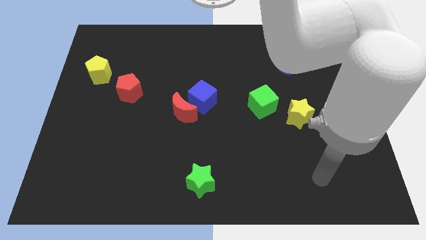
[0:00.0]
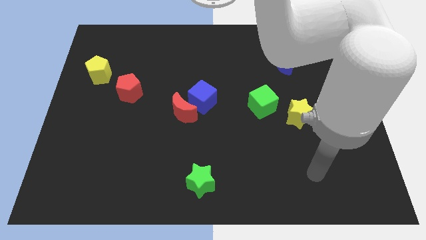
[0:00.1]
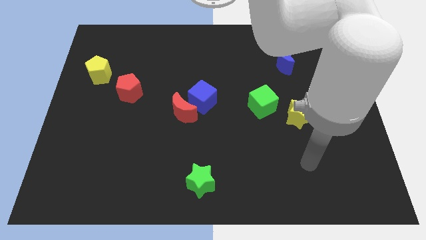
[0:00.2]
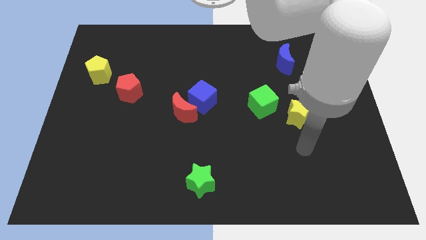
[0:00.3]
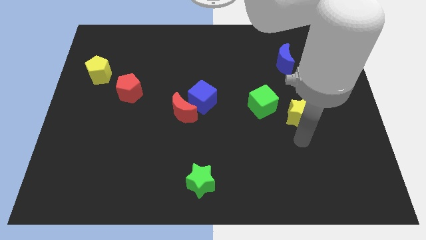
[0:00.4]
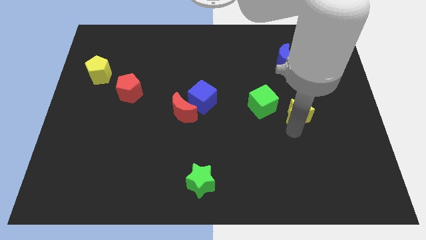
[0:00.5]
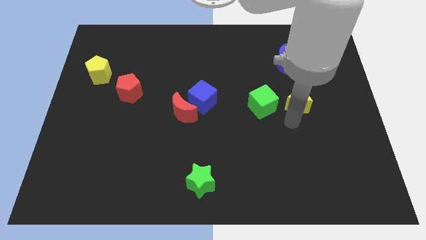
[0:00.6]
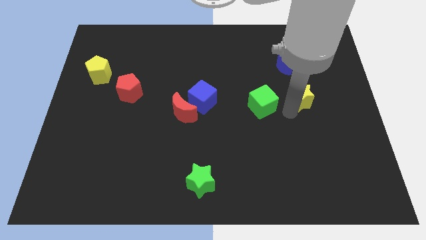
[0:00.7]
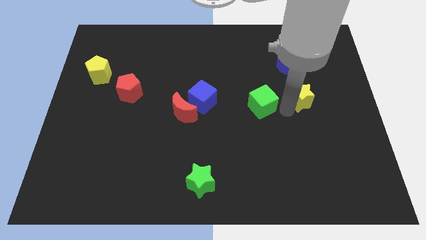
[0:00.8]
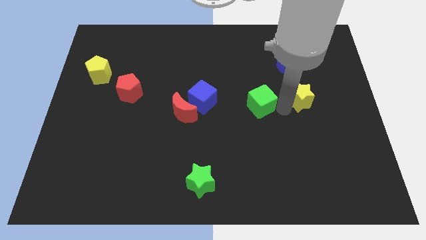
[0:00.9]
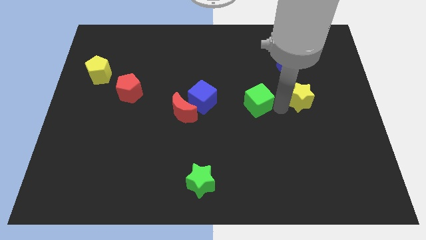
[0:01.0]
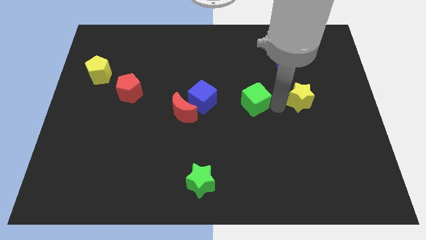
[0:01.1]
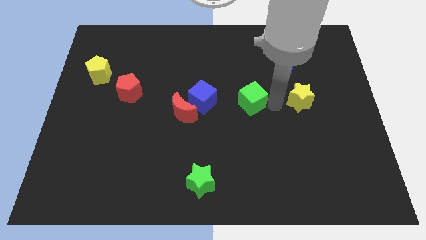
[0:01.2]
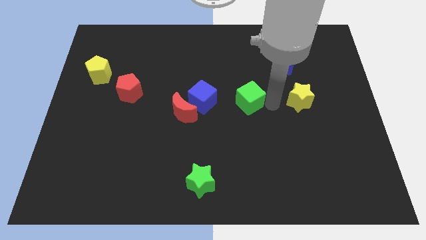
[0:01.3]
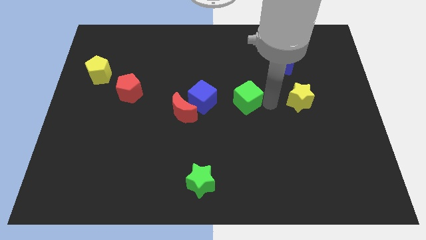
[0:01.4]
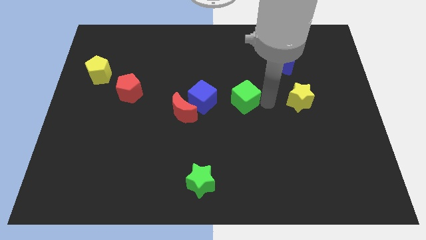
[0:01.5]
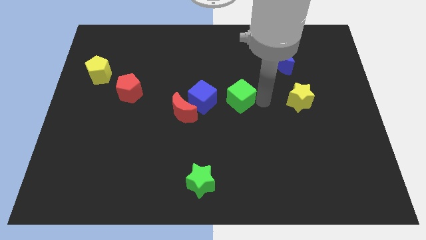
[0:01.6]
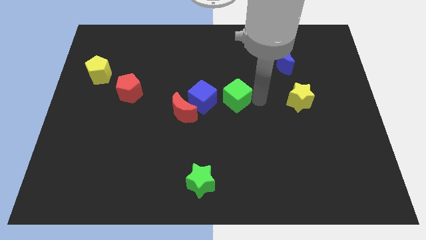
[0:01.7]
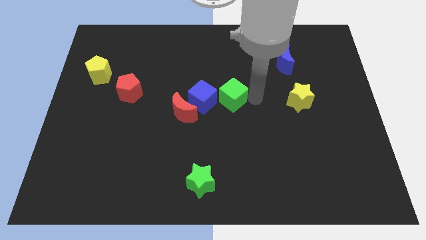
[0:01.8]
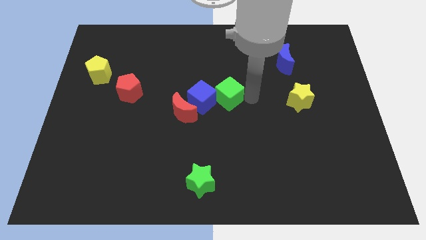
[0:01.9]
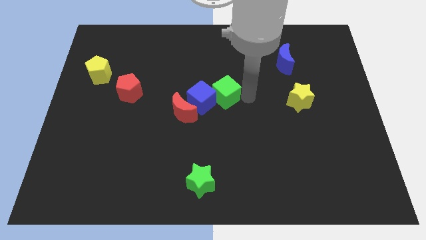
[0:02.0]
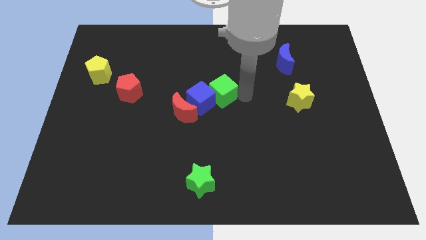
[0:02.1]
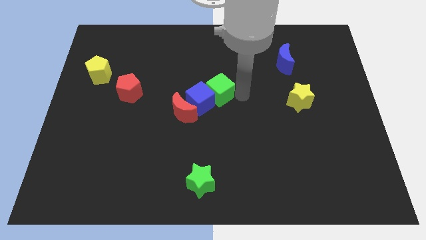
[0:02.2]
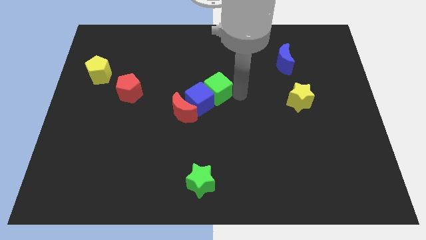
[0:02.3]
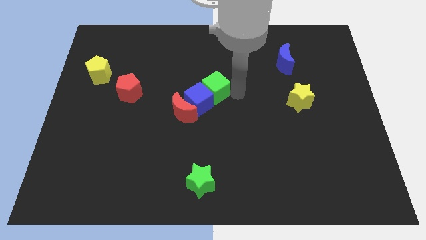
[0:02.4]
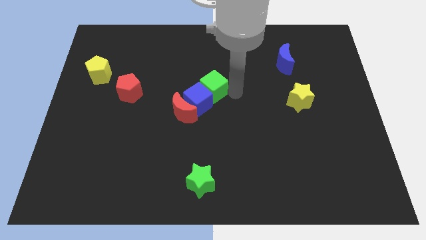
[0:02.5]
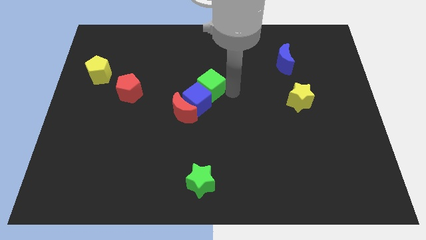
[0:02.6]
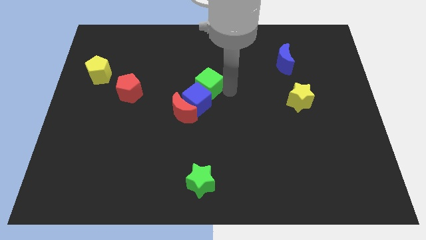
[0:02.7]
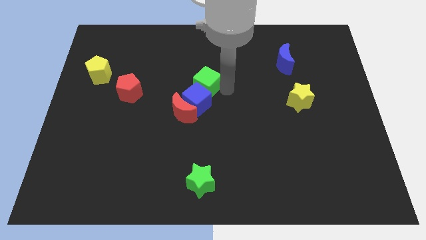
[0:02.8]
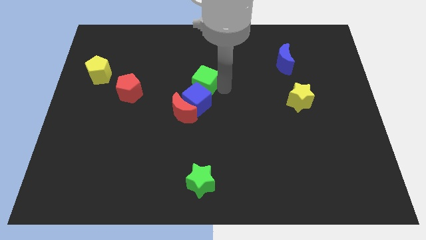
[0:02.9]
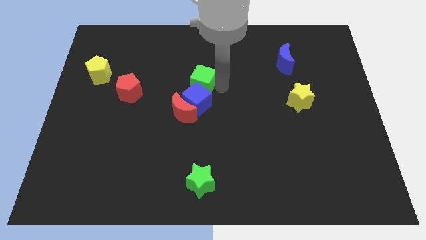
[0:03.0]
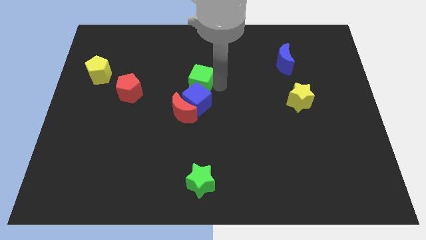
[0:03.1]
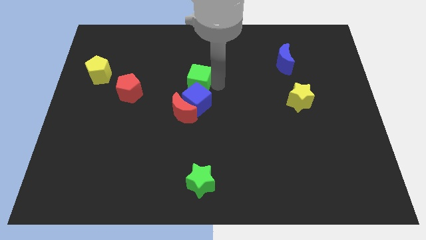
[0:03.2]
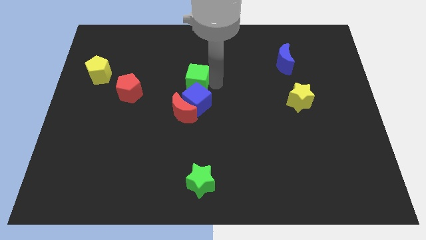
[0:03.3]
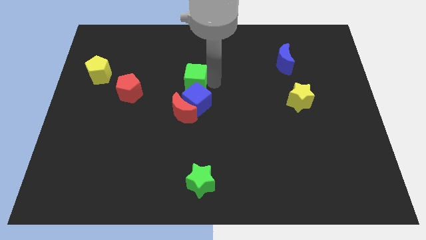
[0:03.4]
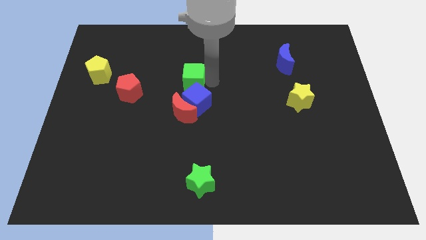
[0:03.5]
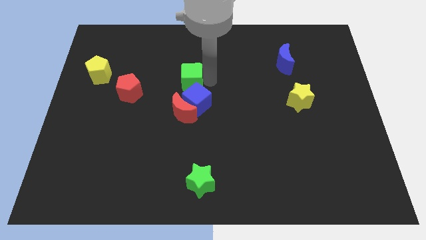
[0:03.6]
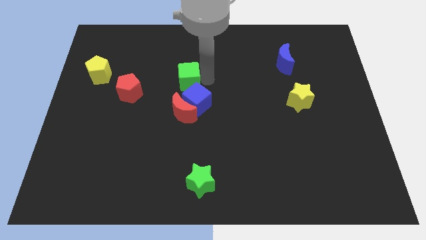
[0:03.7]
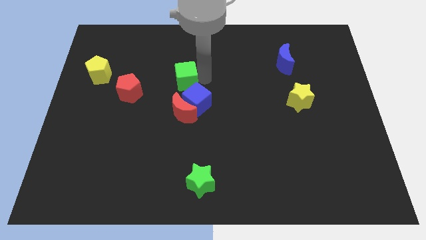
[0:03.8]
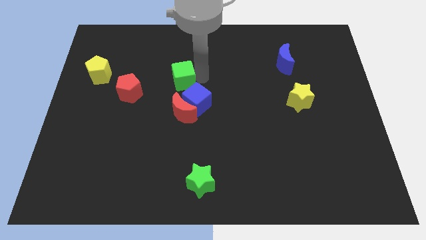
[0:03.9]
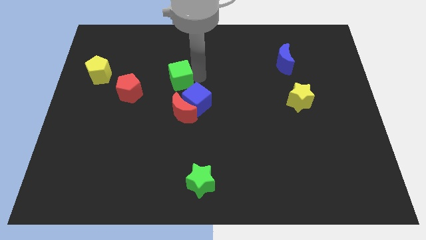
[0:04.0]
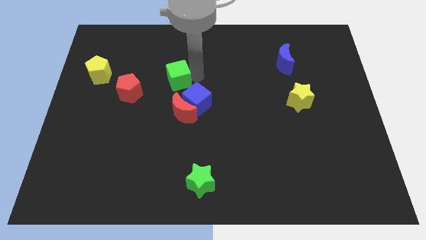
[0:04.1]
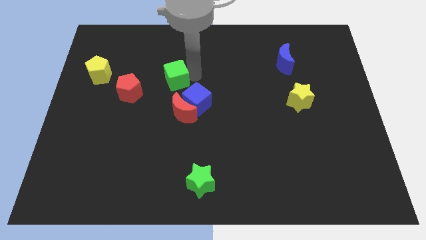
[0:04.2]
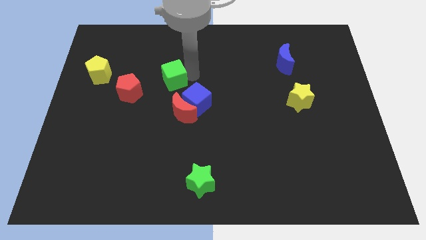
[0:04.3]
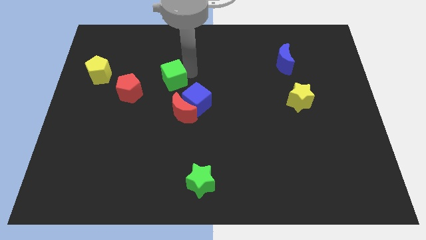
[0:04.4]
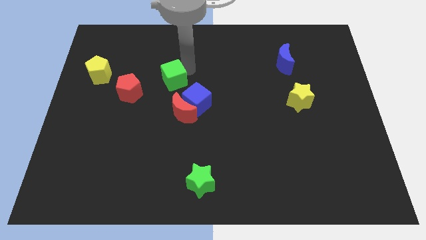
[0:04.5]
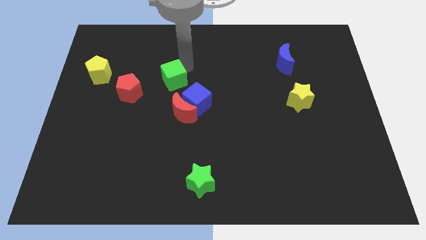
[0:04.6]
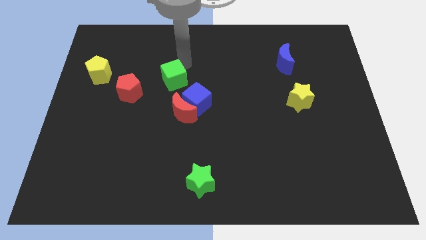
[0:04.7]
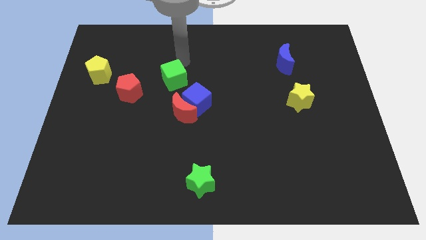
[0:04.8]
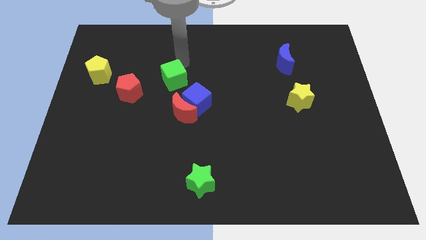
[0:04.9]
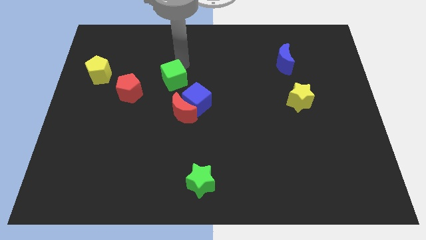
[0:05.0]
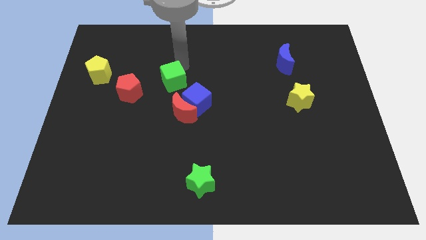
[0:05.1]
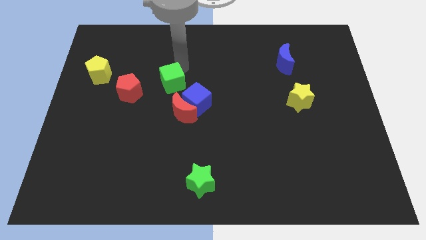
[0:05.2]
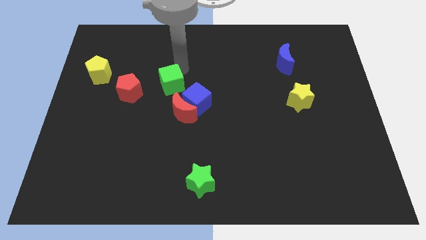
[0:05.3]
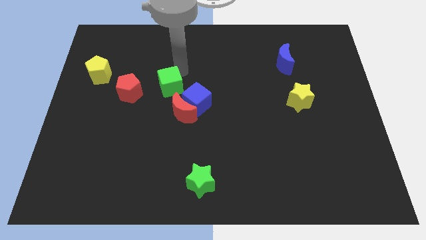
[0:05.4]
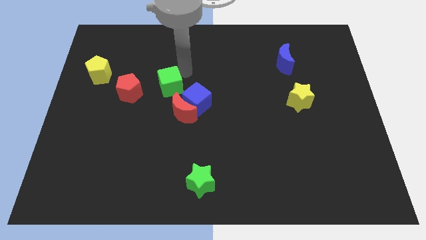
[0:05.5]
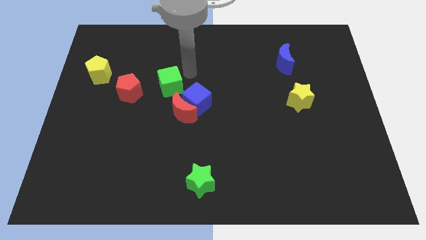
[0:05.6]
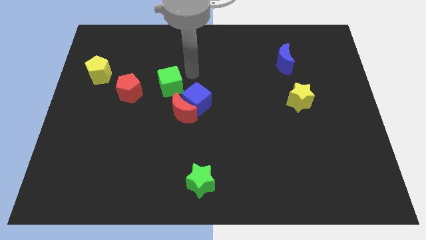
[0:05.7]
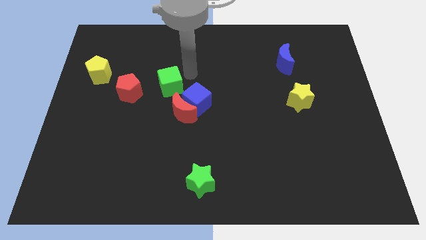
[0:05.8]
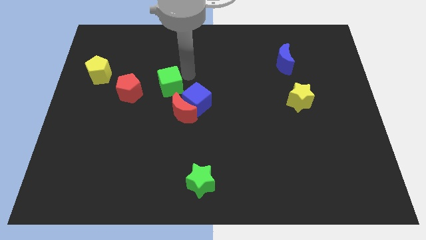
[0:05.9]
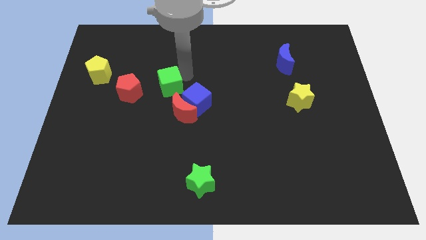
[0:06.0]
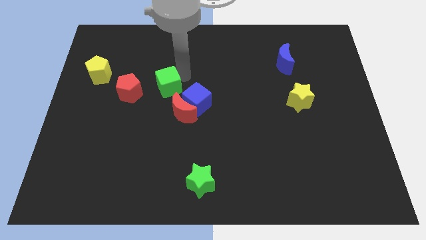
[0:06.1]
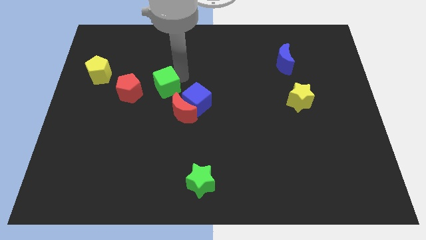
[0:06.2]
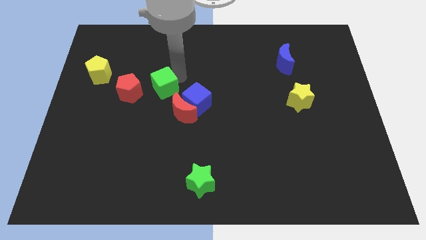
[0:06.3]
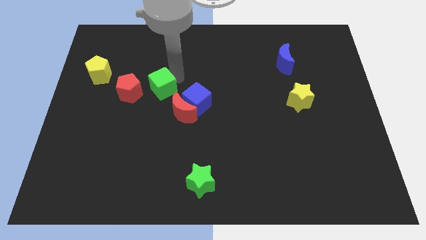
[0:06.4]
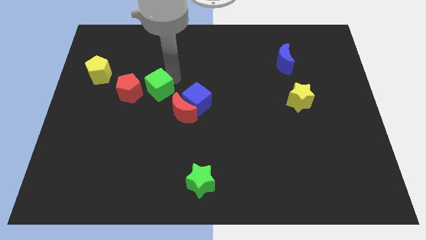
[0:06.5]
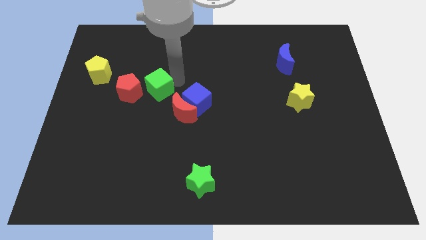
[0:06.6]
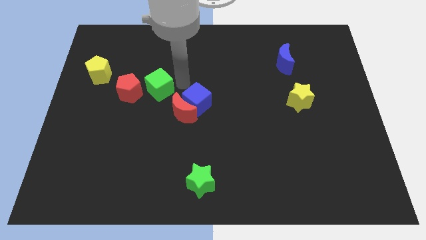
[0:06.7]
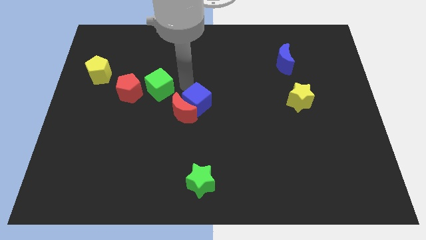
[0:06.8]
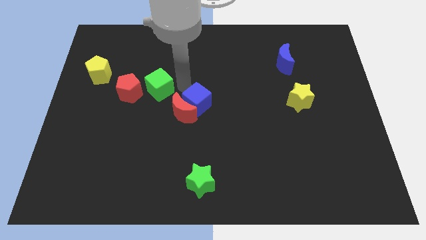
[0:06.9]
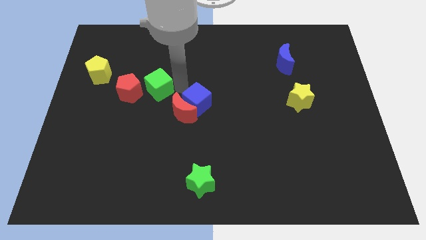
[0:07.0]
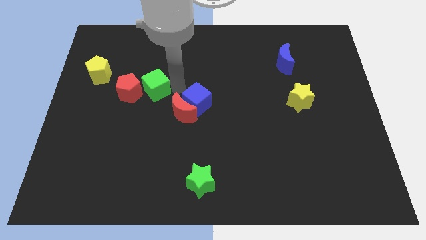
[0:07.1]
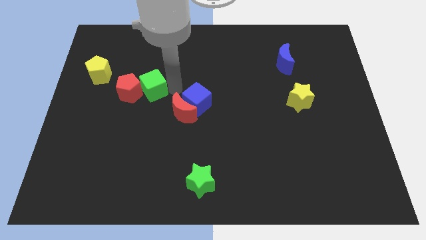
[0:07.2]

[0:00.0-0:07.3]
move the green cube next to the red pentagon
